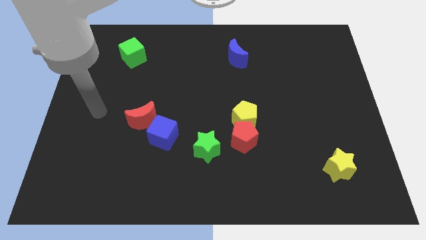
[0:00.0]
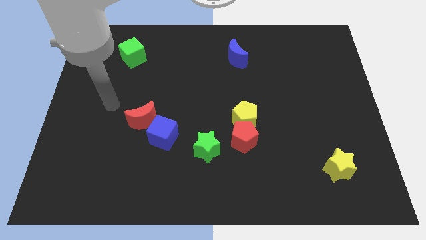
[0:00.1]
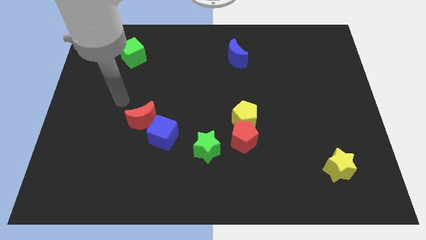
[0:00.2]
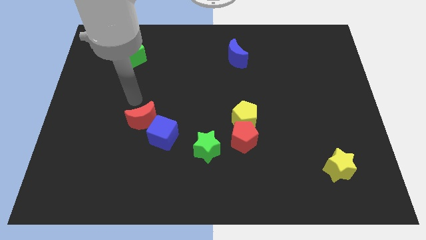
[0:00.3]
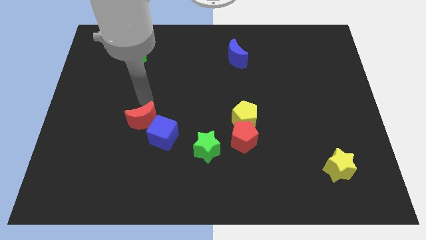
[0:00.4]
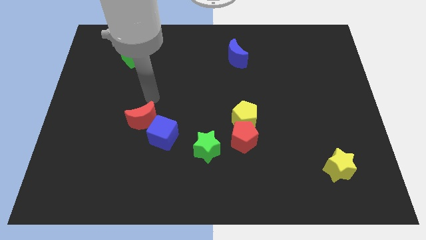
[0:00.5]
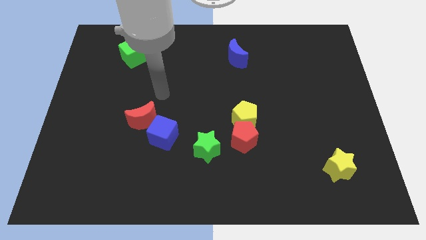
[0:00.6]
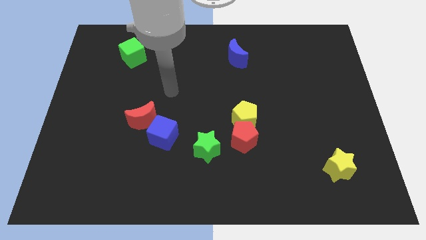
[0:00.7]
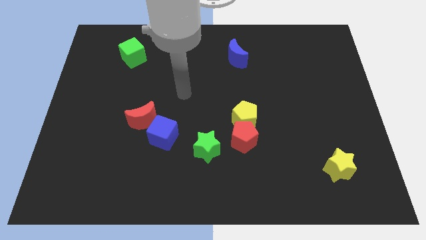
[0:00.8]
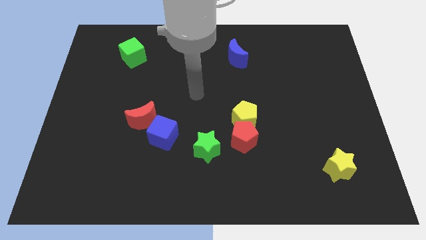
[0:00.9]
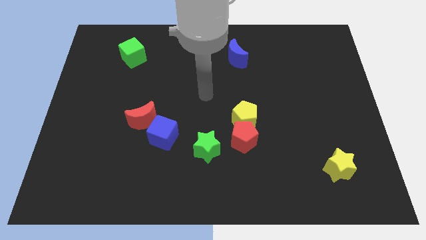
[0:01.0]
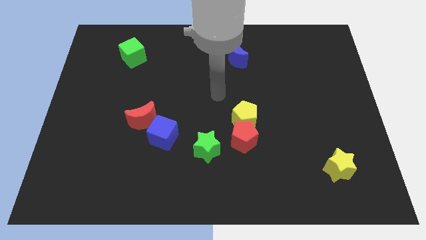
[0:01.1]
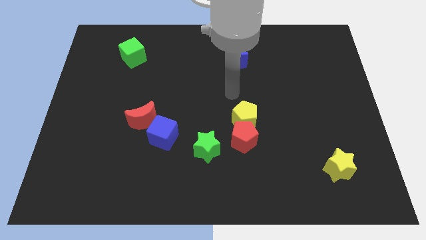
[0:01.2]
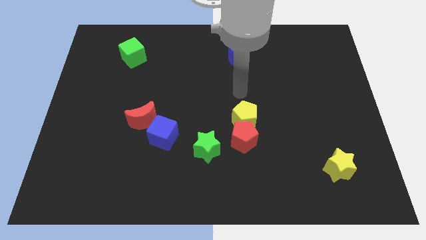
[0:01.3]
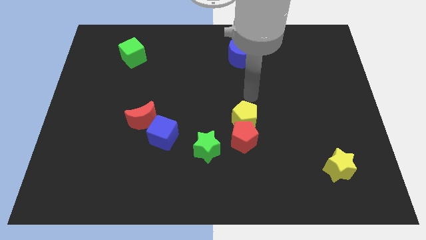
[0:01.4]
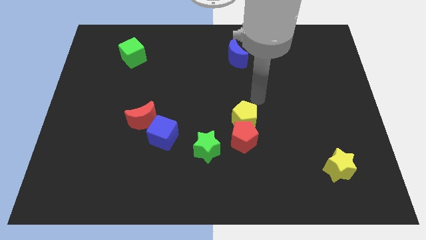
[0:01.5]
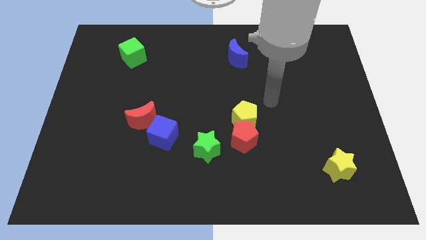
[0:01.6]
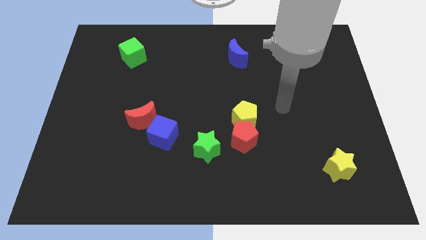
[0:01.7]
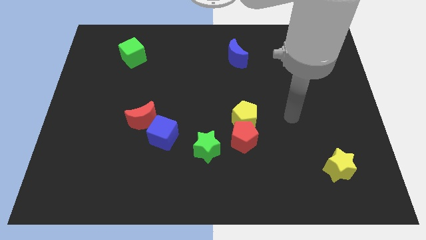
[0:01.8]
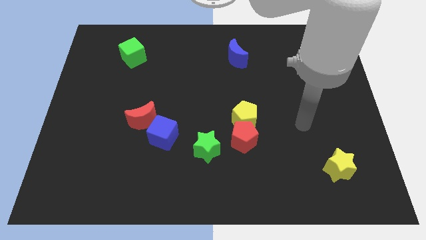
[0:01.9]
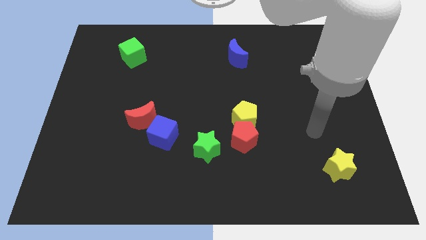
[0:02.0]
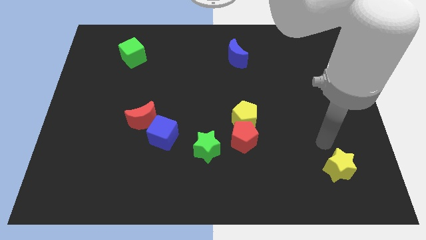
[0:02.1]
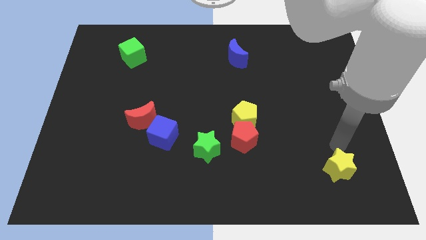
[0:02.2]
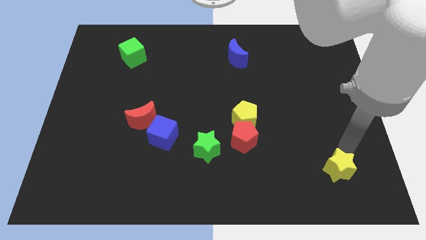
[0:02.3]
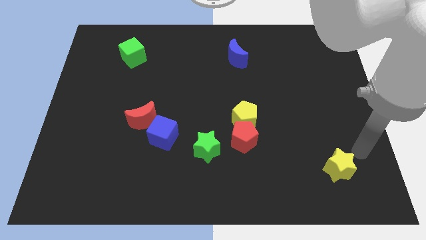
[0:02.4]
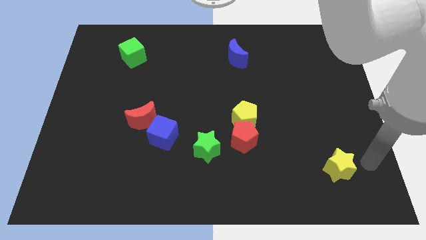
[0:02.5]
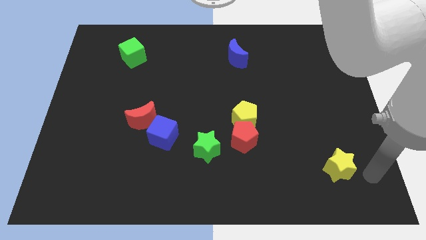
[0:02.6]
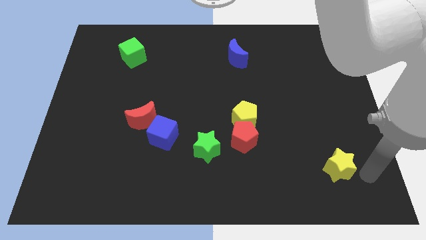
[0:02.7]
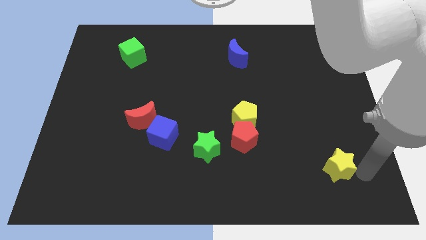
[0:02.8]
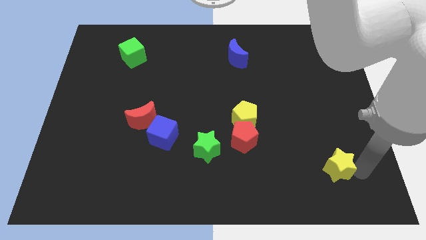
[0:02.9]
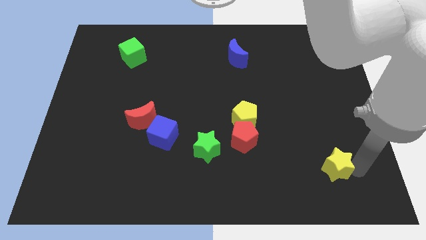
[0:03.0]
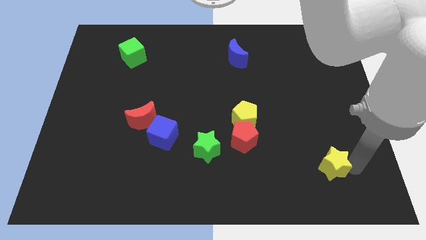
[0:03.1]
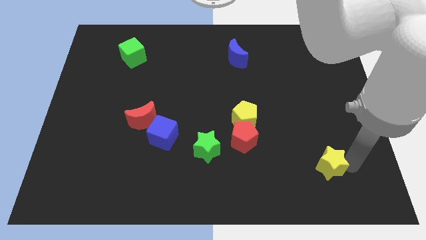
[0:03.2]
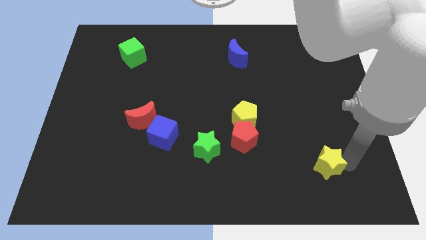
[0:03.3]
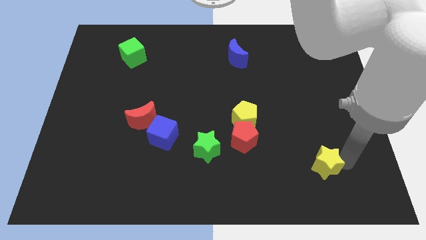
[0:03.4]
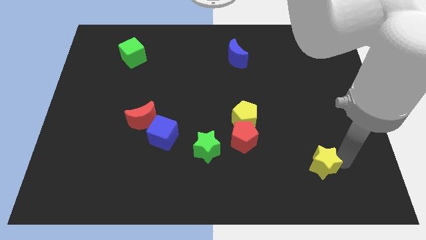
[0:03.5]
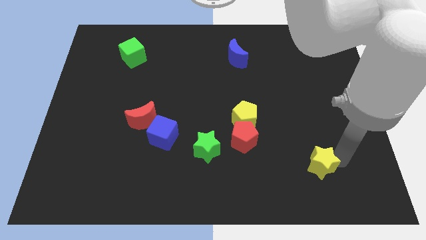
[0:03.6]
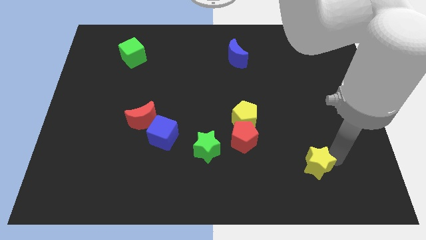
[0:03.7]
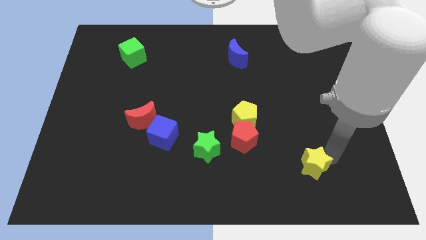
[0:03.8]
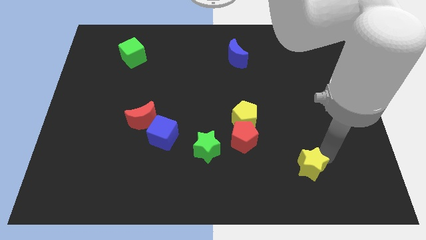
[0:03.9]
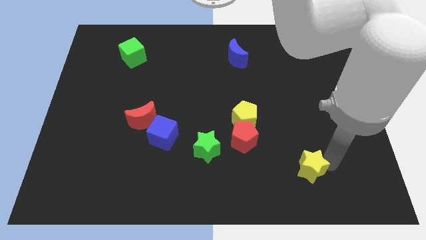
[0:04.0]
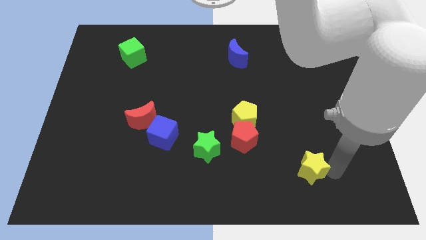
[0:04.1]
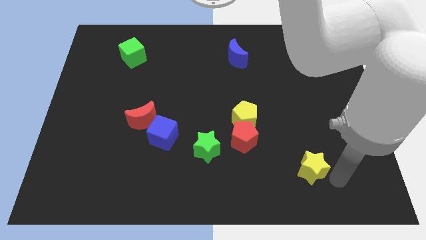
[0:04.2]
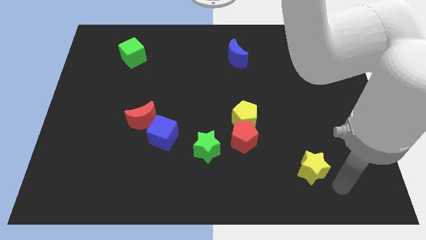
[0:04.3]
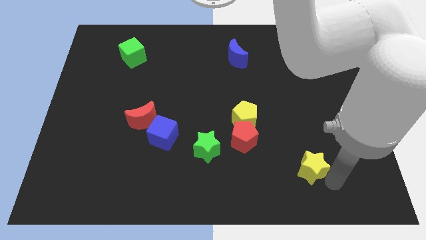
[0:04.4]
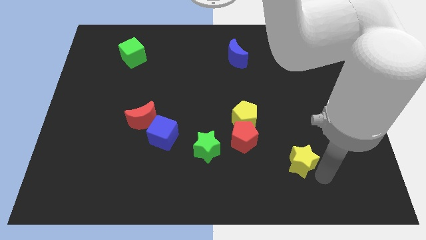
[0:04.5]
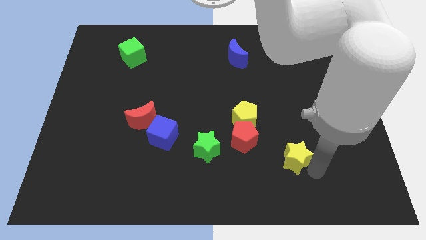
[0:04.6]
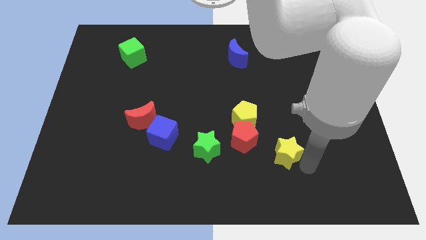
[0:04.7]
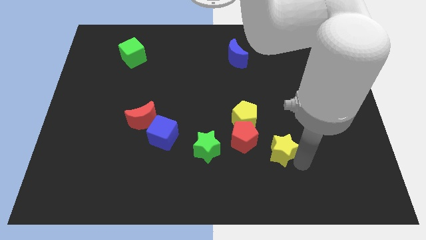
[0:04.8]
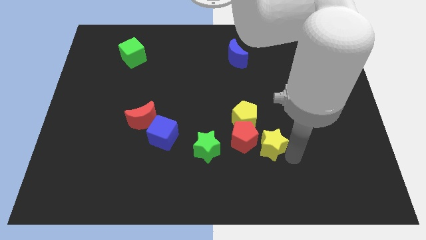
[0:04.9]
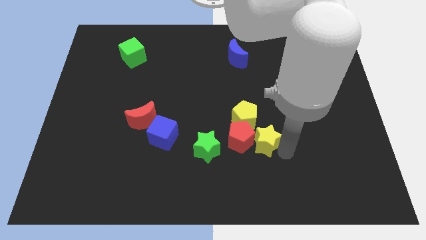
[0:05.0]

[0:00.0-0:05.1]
put the yellow star next to the red pentagon

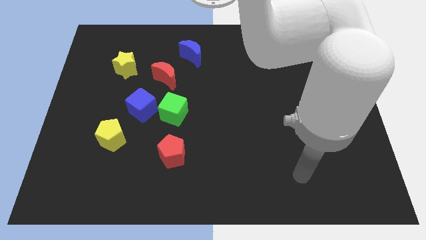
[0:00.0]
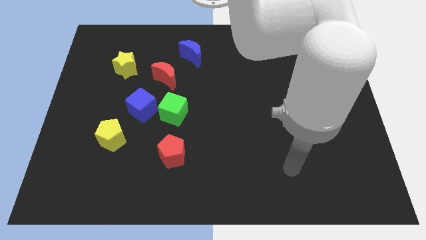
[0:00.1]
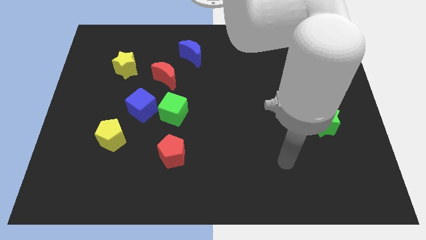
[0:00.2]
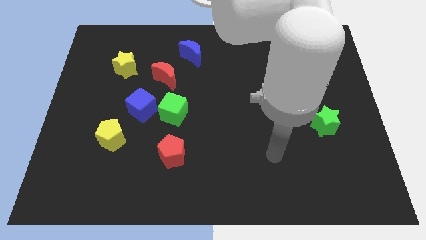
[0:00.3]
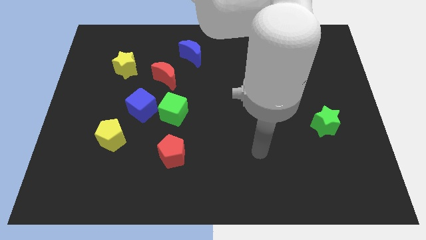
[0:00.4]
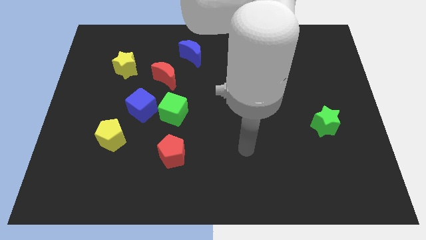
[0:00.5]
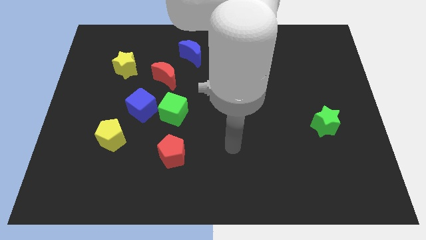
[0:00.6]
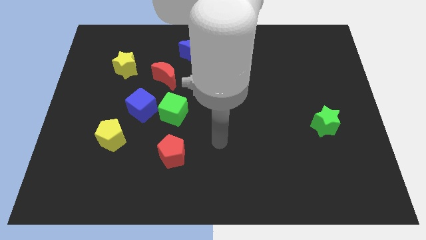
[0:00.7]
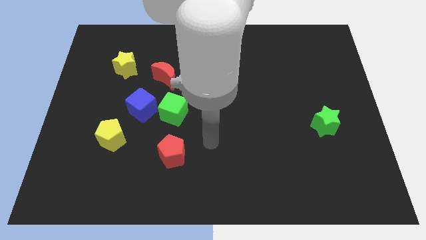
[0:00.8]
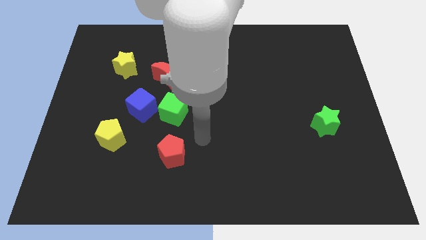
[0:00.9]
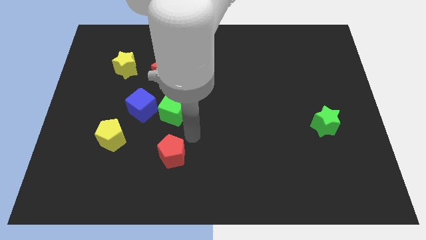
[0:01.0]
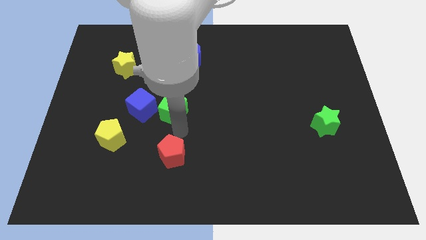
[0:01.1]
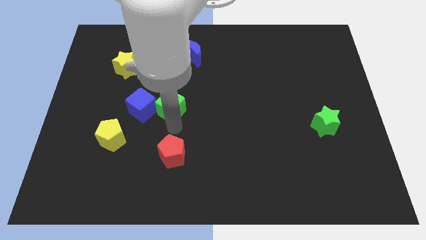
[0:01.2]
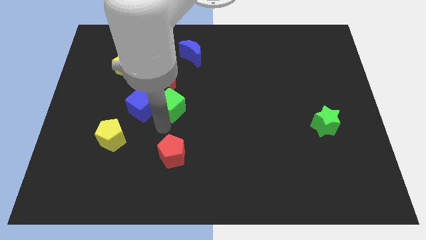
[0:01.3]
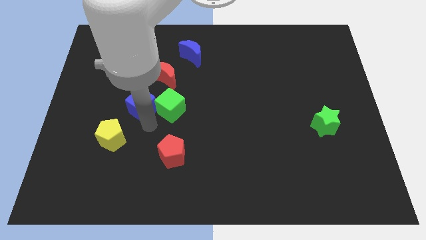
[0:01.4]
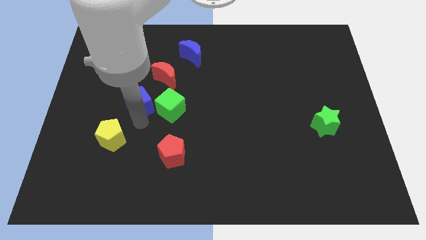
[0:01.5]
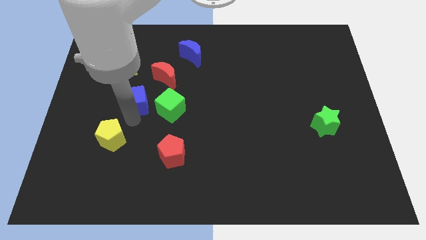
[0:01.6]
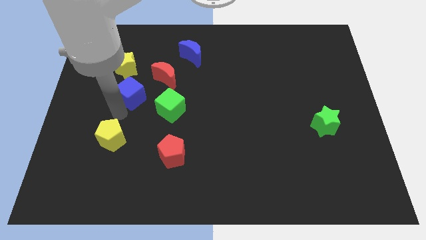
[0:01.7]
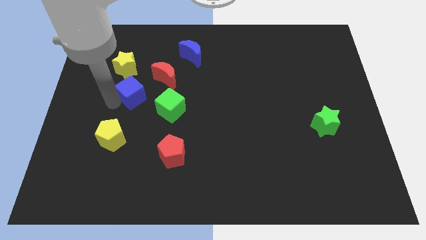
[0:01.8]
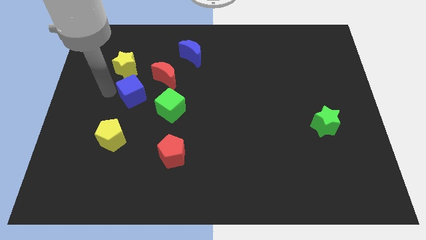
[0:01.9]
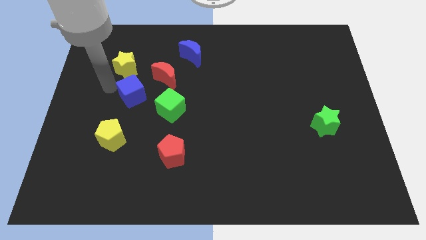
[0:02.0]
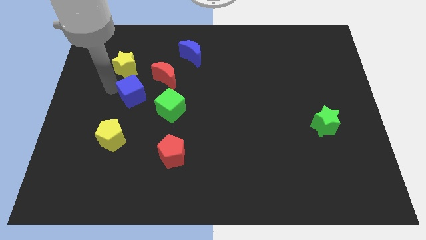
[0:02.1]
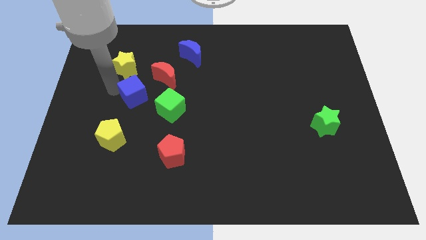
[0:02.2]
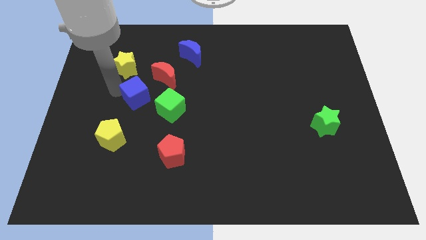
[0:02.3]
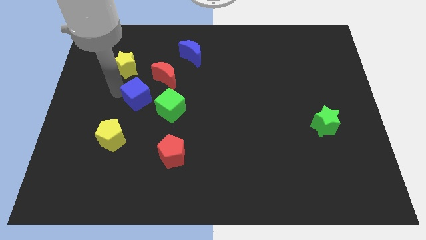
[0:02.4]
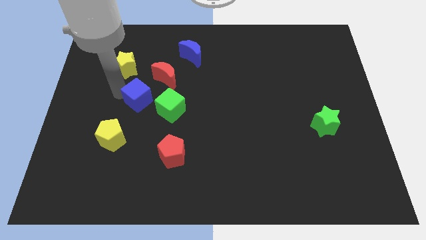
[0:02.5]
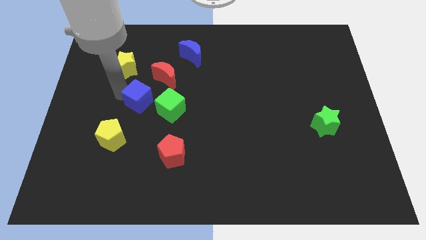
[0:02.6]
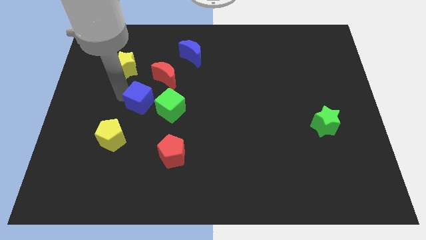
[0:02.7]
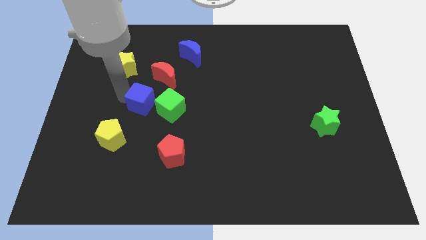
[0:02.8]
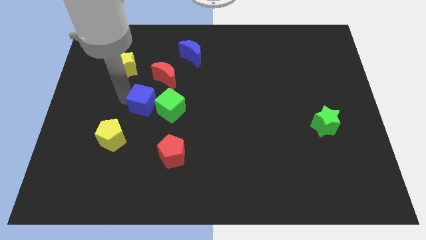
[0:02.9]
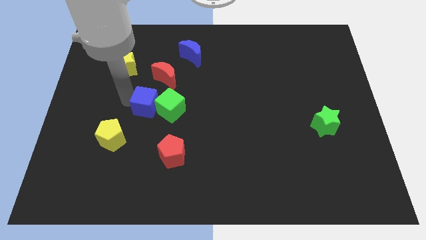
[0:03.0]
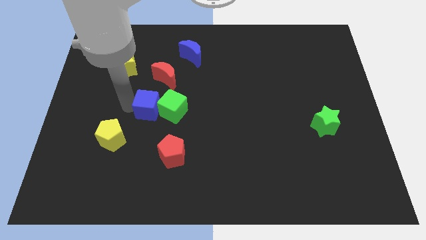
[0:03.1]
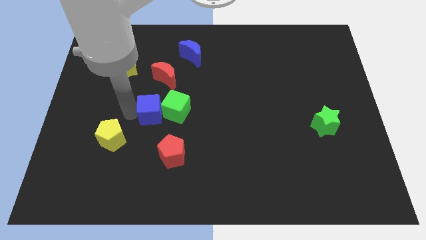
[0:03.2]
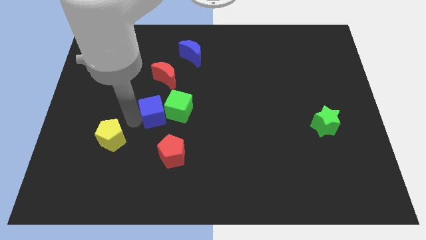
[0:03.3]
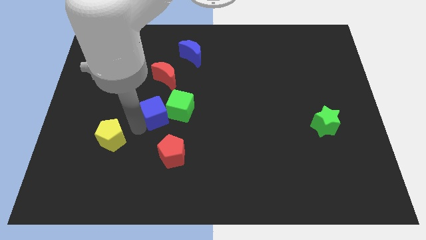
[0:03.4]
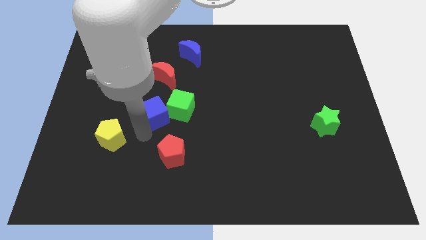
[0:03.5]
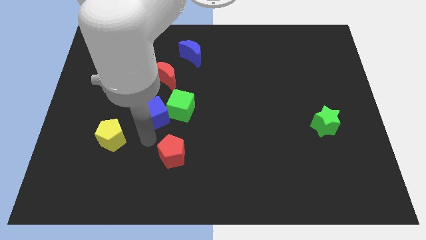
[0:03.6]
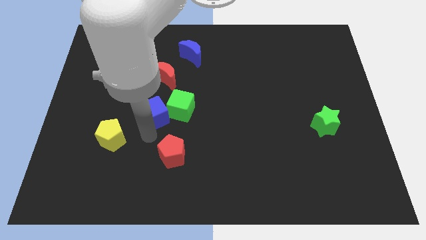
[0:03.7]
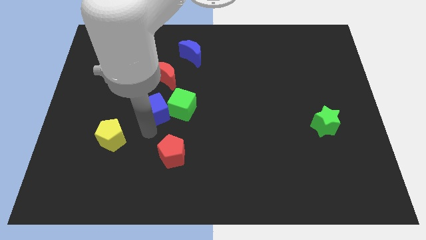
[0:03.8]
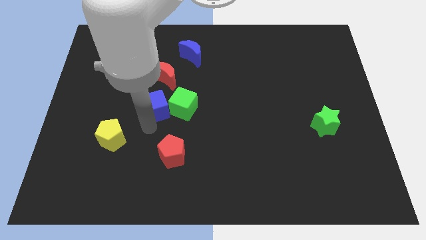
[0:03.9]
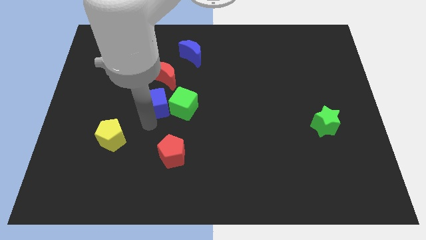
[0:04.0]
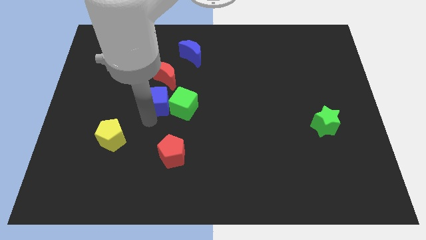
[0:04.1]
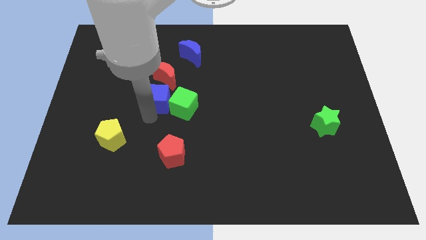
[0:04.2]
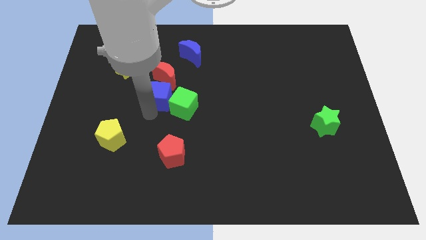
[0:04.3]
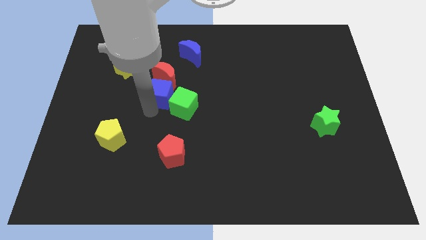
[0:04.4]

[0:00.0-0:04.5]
move the blue cube towards the red moon
